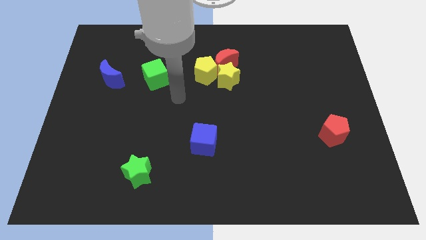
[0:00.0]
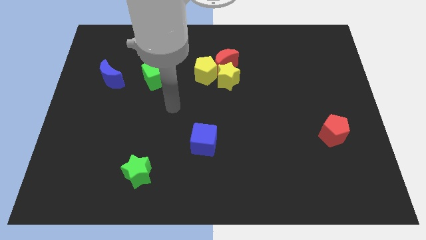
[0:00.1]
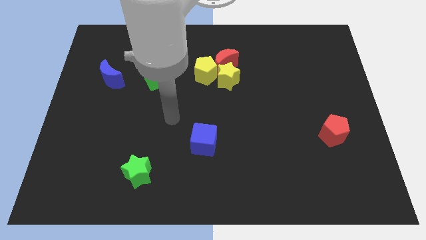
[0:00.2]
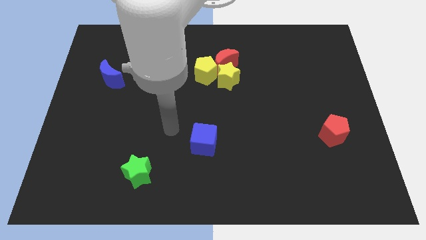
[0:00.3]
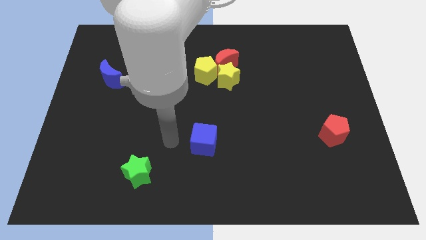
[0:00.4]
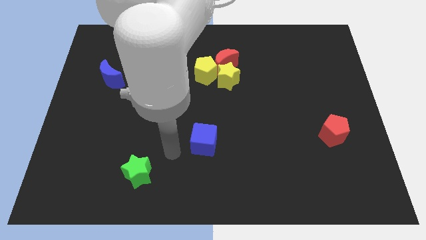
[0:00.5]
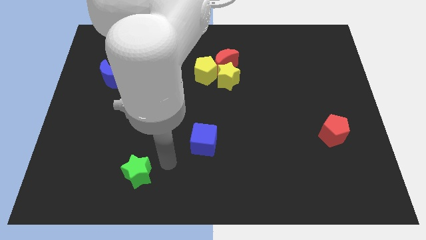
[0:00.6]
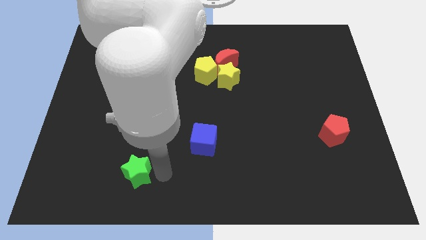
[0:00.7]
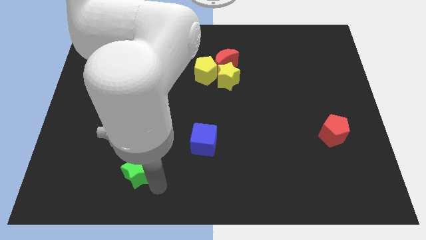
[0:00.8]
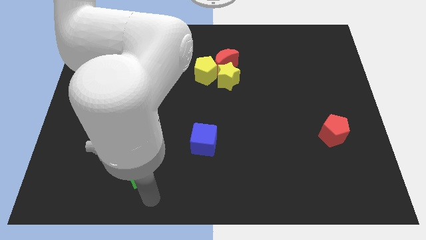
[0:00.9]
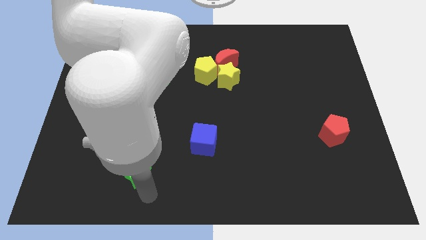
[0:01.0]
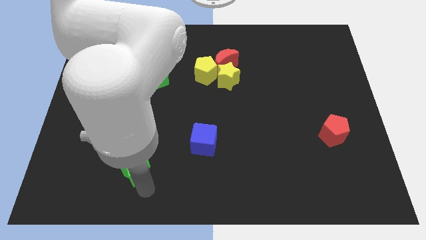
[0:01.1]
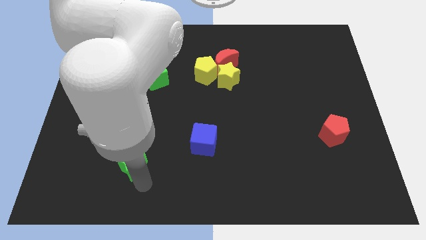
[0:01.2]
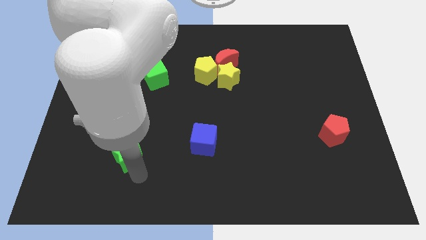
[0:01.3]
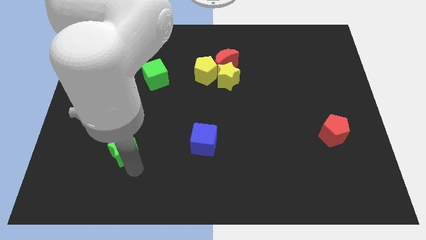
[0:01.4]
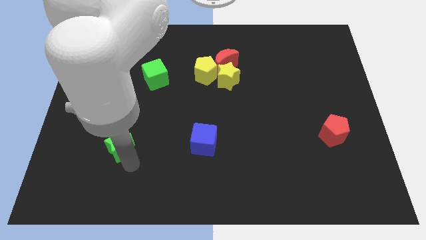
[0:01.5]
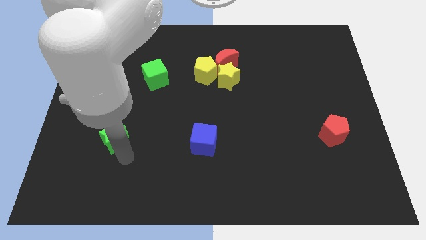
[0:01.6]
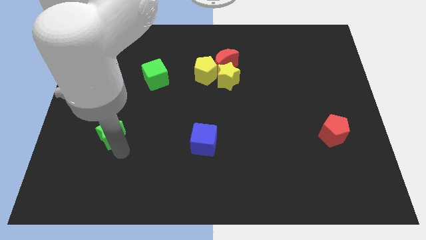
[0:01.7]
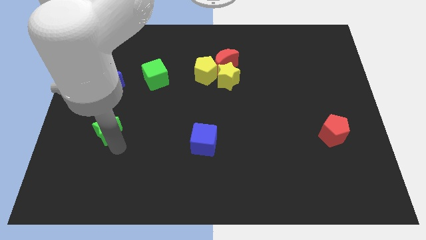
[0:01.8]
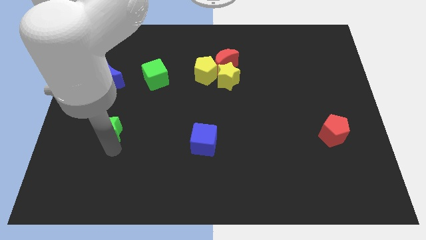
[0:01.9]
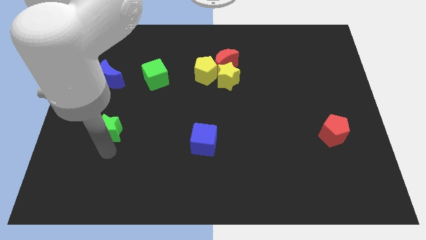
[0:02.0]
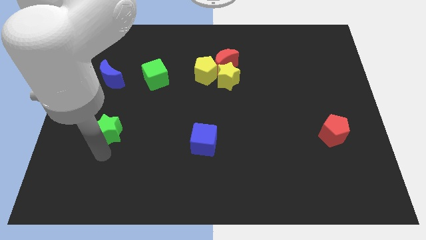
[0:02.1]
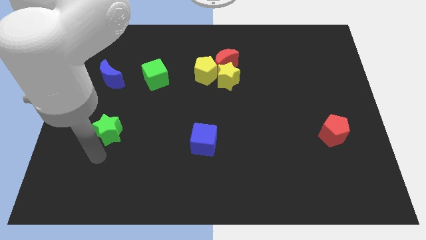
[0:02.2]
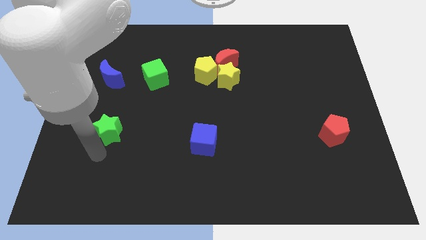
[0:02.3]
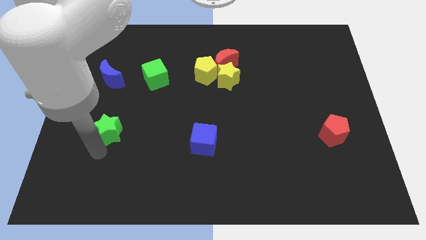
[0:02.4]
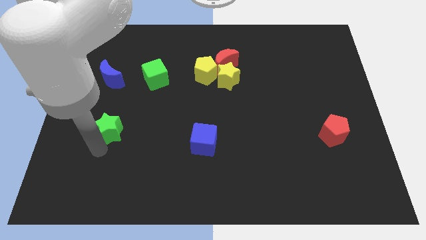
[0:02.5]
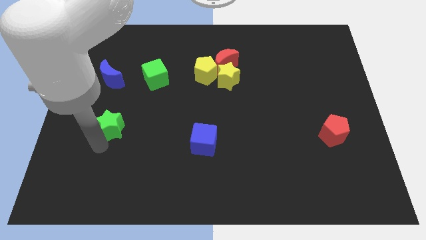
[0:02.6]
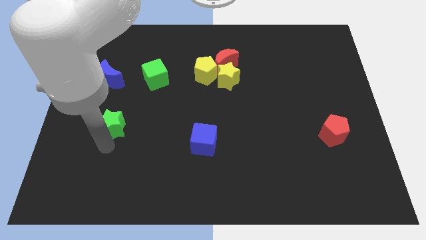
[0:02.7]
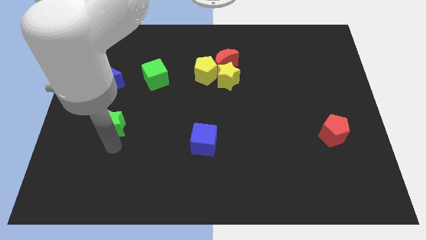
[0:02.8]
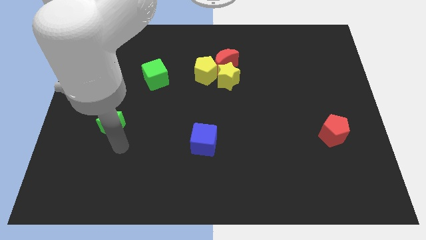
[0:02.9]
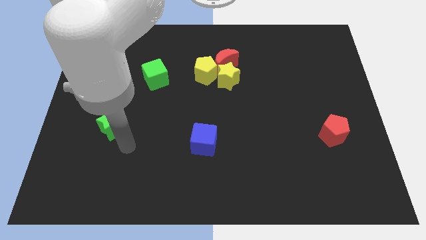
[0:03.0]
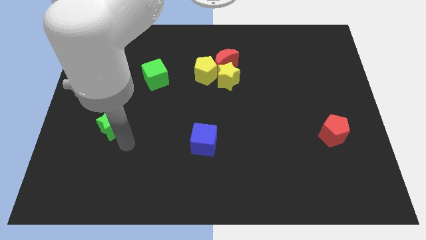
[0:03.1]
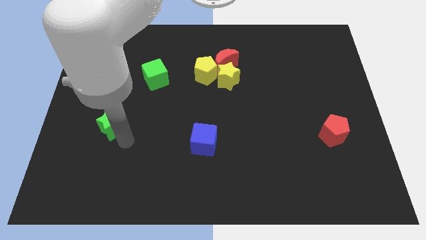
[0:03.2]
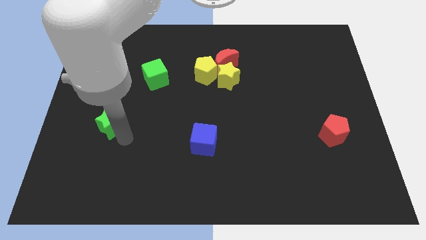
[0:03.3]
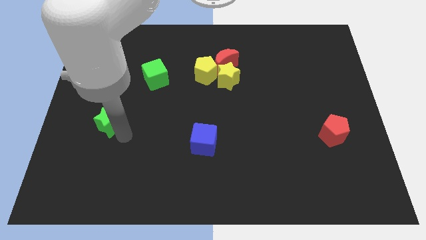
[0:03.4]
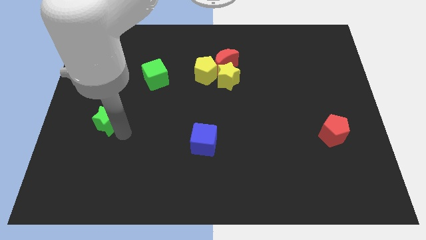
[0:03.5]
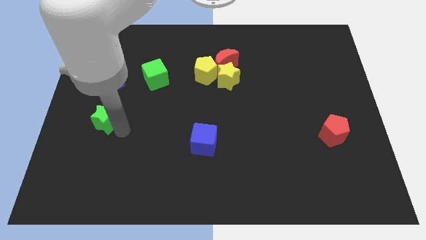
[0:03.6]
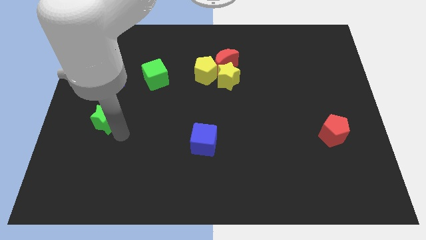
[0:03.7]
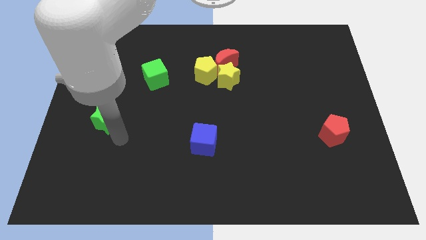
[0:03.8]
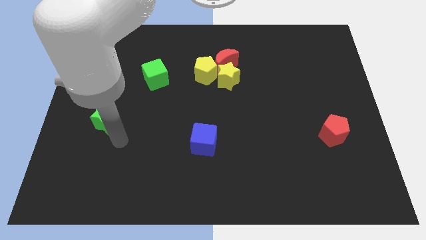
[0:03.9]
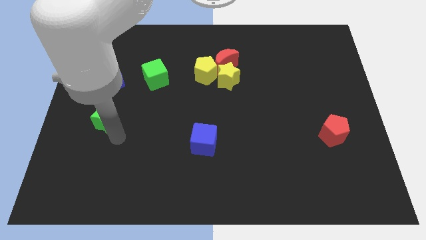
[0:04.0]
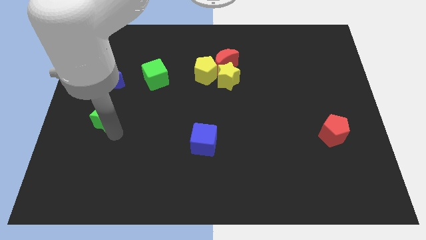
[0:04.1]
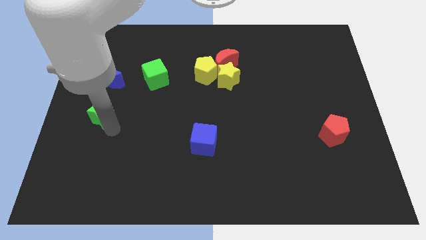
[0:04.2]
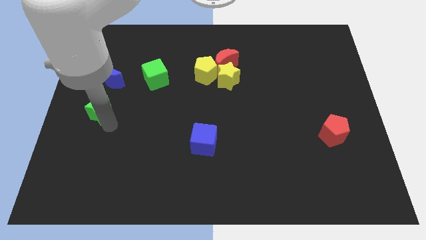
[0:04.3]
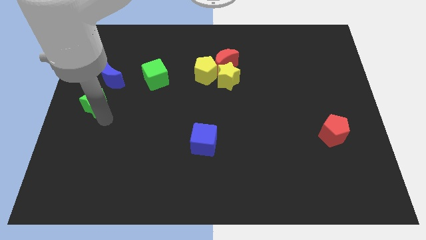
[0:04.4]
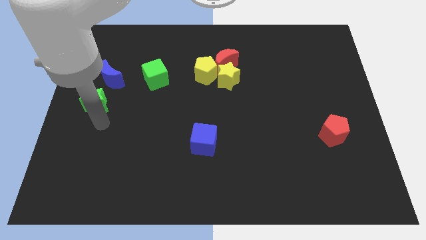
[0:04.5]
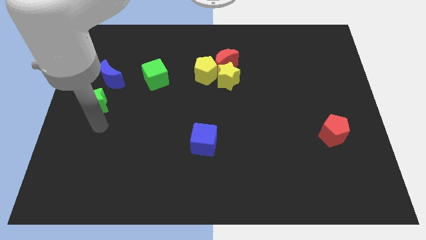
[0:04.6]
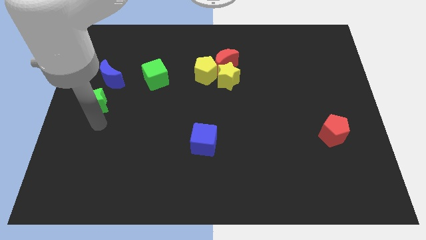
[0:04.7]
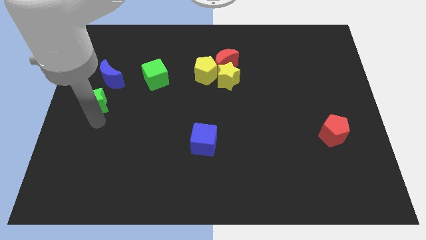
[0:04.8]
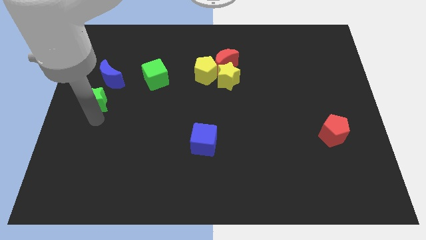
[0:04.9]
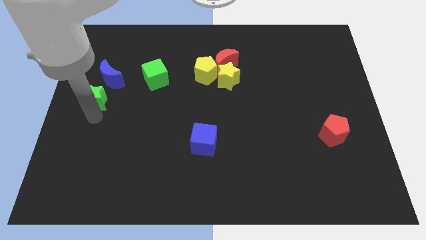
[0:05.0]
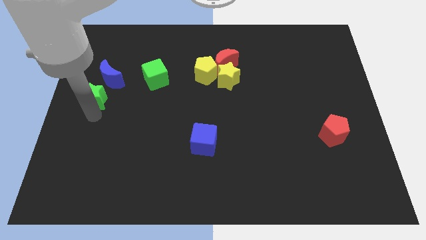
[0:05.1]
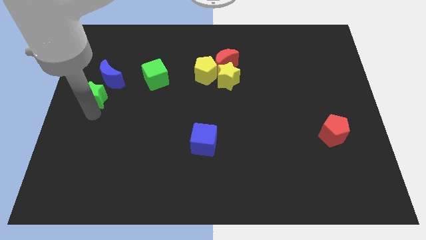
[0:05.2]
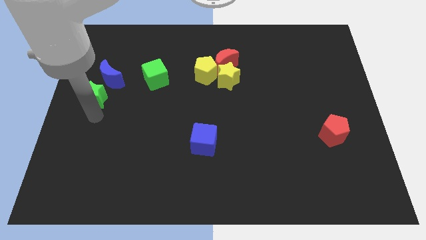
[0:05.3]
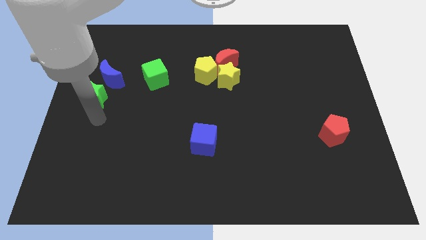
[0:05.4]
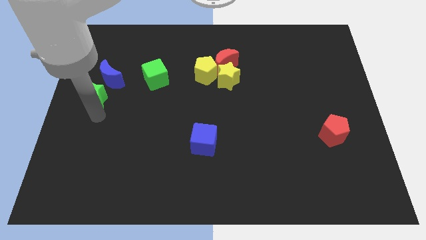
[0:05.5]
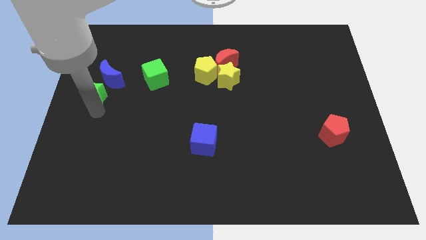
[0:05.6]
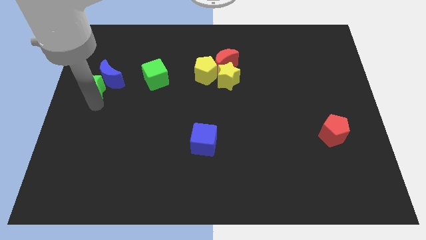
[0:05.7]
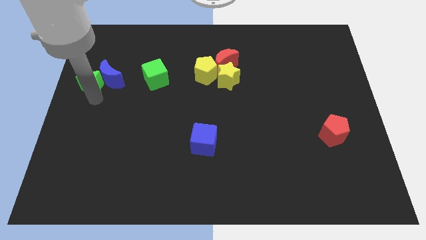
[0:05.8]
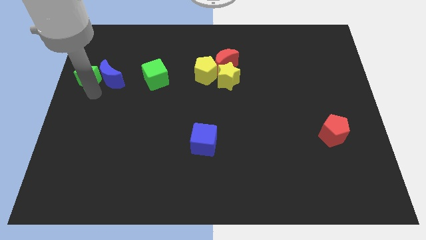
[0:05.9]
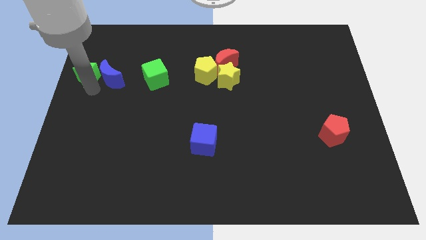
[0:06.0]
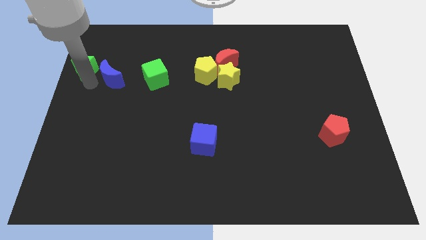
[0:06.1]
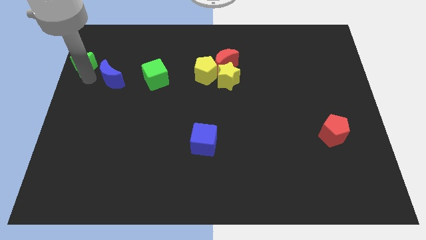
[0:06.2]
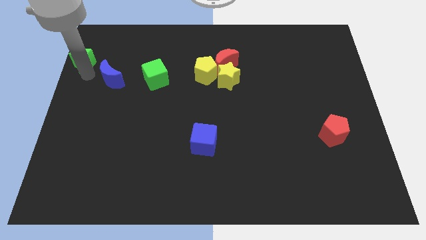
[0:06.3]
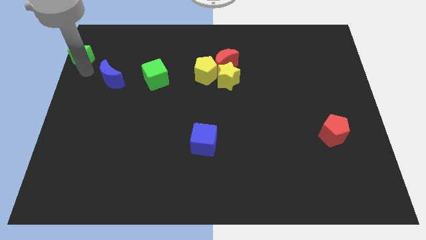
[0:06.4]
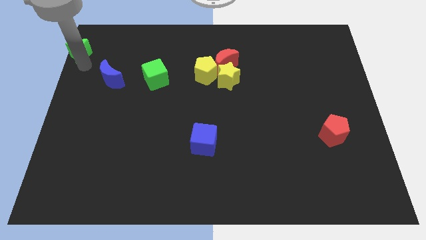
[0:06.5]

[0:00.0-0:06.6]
move the green star to the top left corner

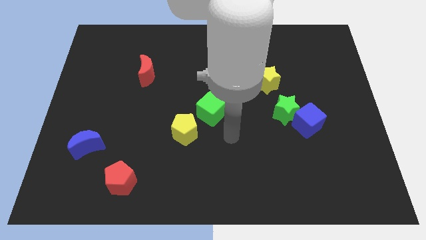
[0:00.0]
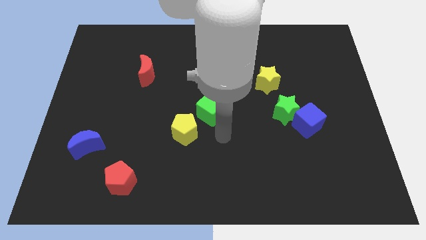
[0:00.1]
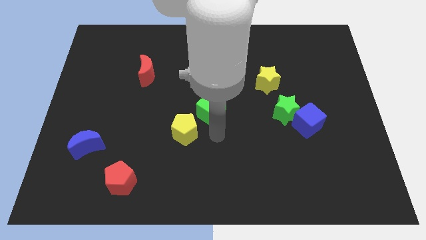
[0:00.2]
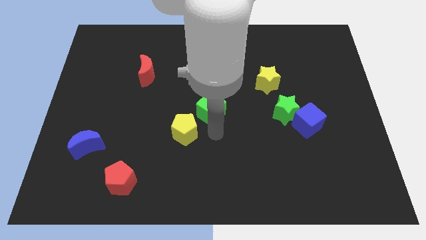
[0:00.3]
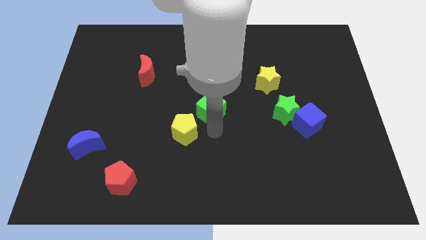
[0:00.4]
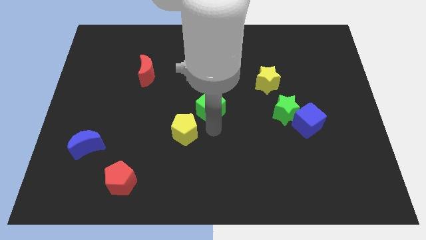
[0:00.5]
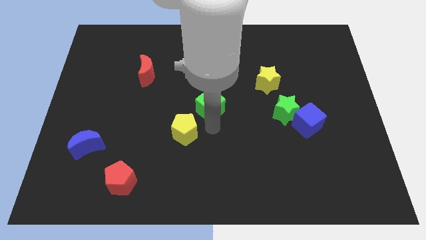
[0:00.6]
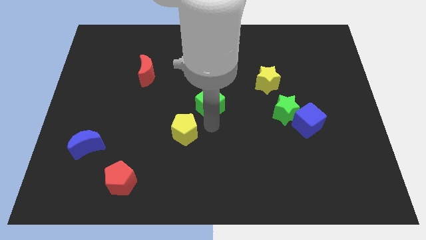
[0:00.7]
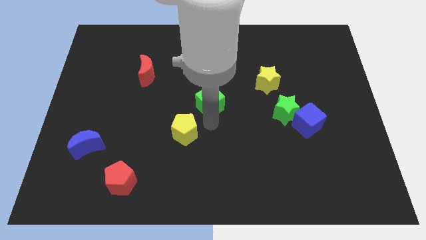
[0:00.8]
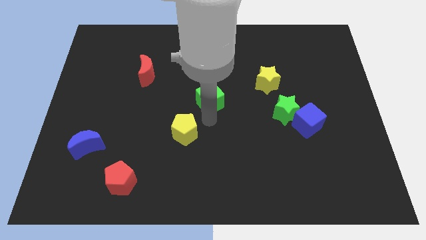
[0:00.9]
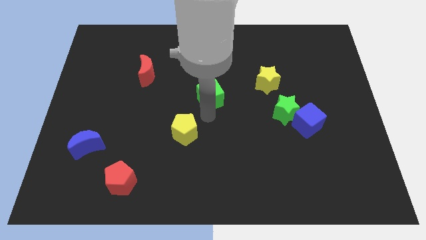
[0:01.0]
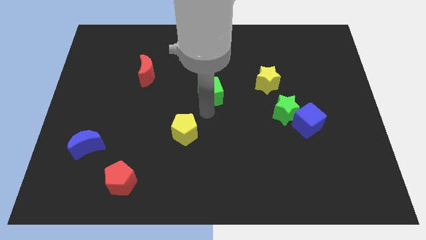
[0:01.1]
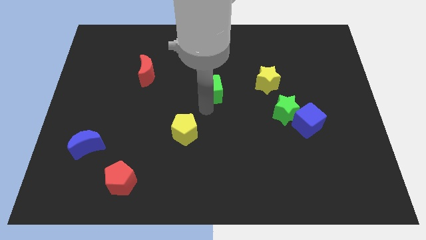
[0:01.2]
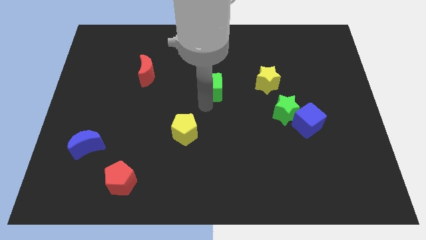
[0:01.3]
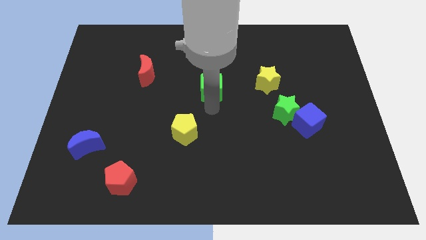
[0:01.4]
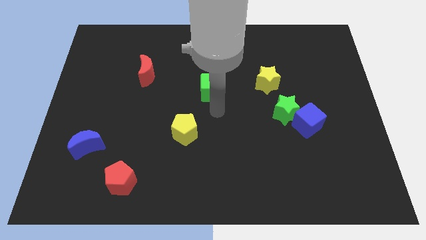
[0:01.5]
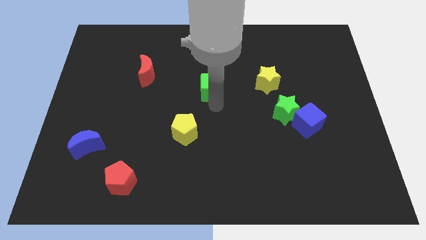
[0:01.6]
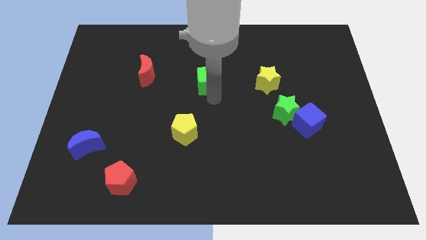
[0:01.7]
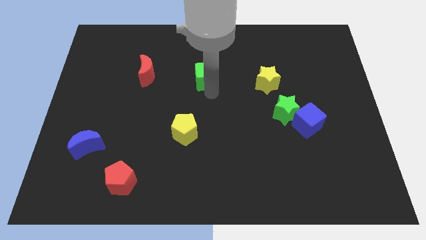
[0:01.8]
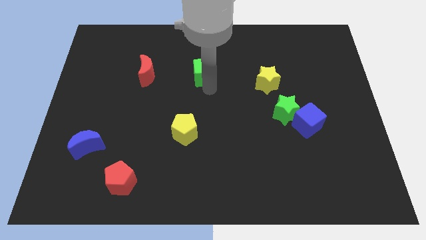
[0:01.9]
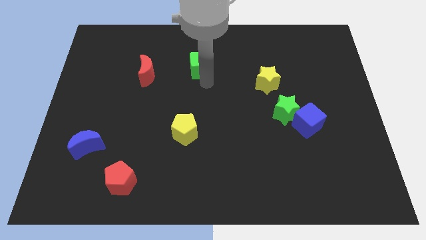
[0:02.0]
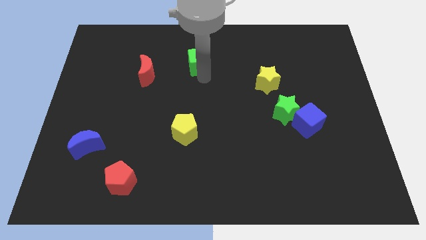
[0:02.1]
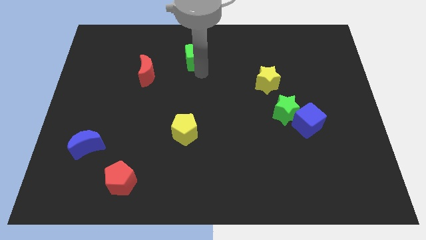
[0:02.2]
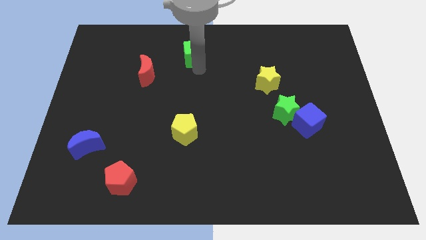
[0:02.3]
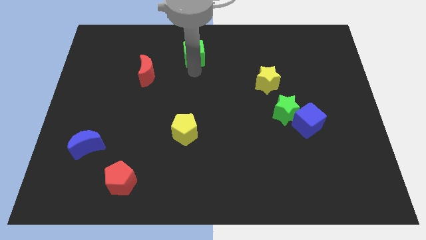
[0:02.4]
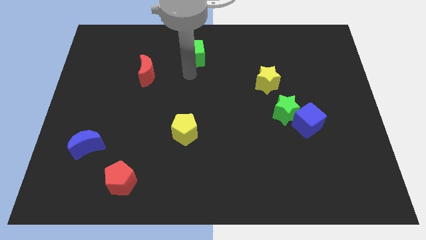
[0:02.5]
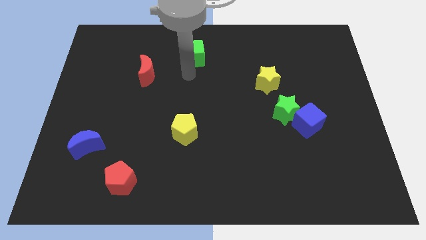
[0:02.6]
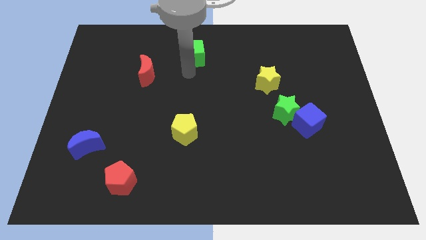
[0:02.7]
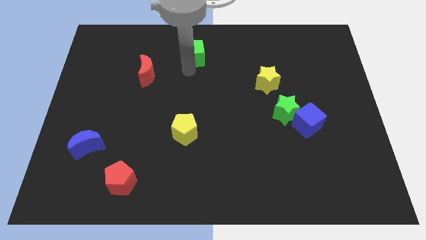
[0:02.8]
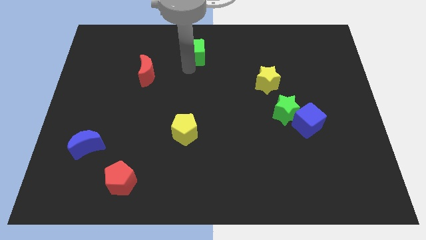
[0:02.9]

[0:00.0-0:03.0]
move the green cube to the towards your base
